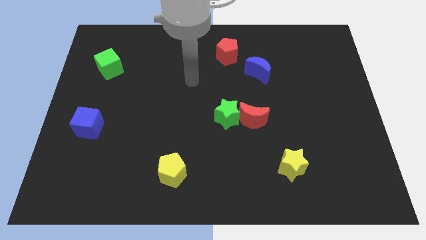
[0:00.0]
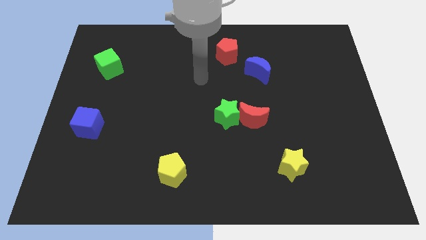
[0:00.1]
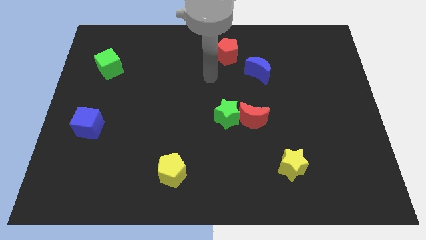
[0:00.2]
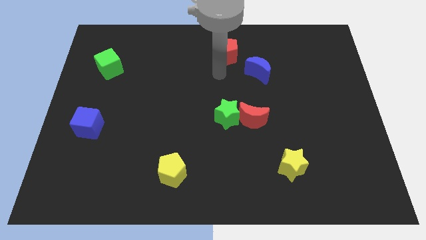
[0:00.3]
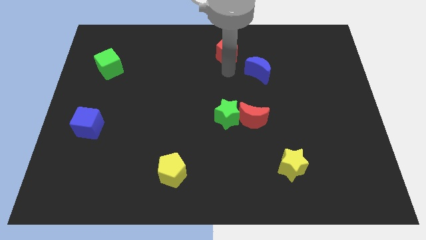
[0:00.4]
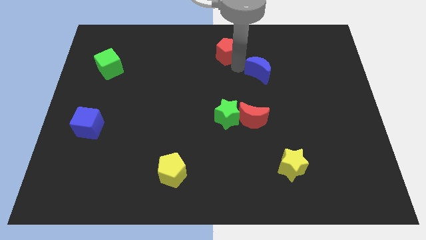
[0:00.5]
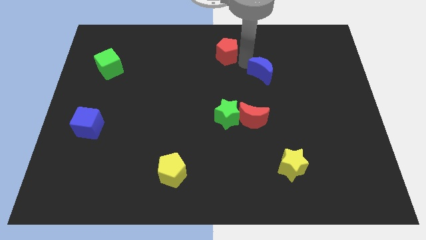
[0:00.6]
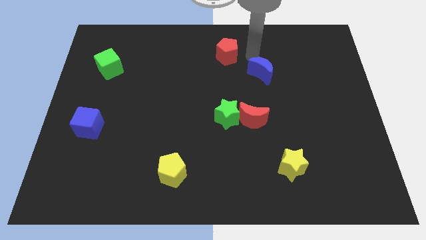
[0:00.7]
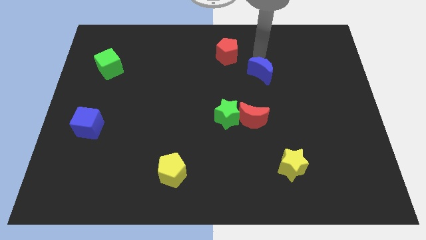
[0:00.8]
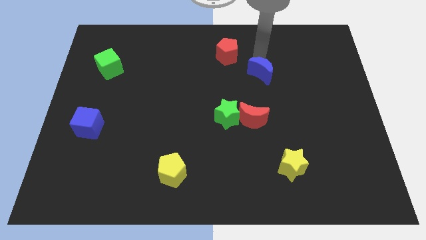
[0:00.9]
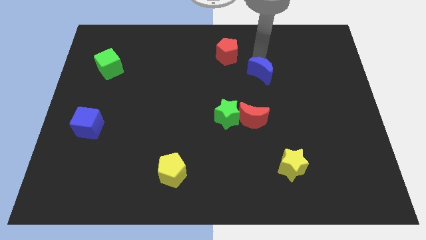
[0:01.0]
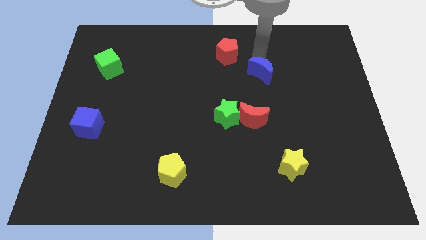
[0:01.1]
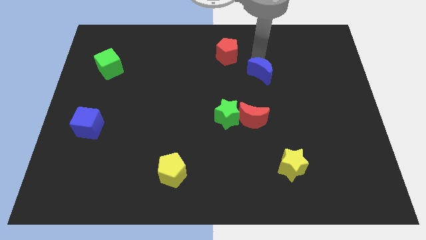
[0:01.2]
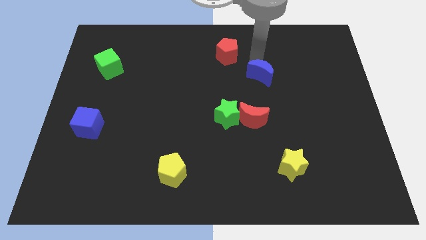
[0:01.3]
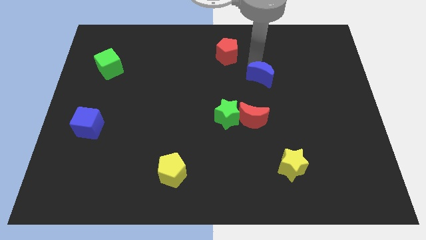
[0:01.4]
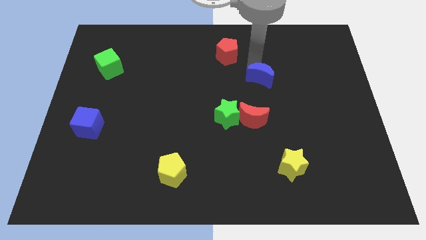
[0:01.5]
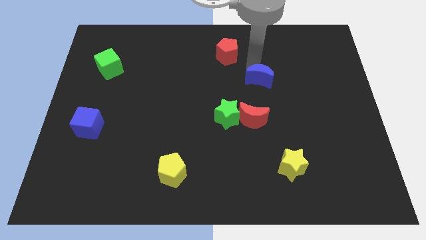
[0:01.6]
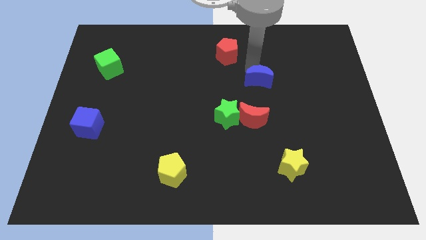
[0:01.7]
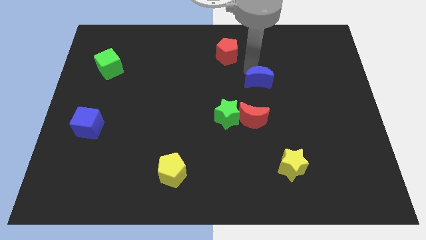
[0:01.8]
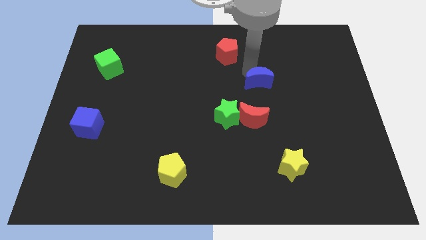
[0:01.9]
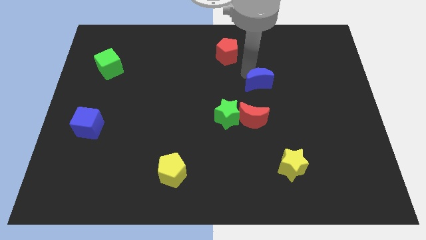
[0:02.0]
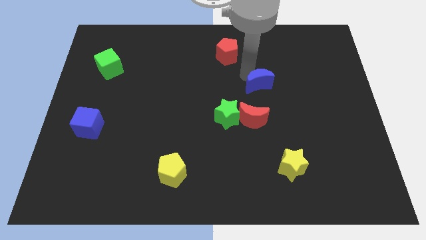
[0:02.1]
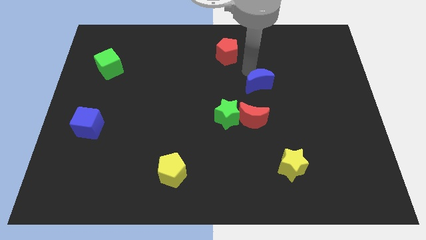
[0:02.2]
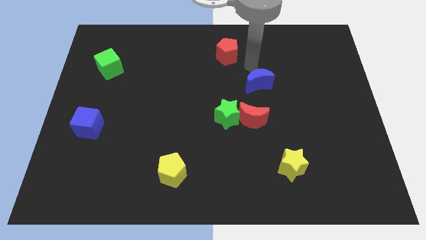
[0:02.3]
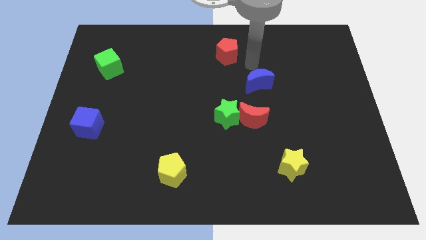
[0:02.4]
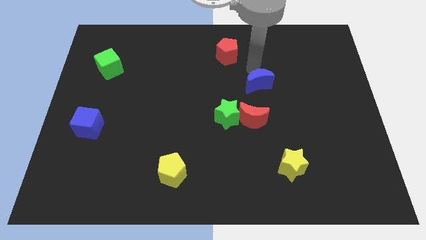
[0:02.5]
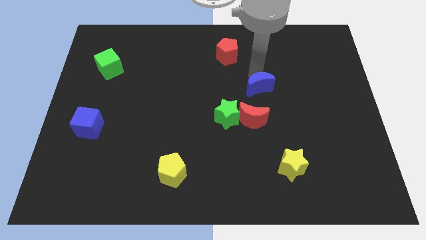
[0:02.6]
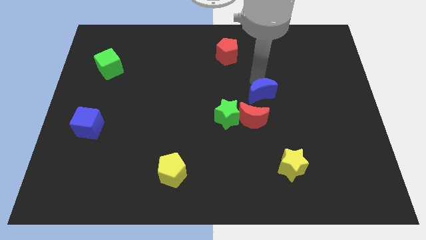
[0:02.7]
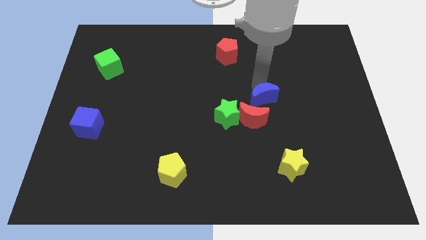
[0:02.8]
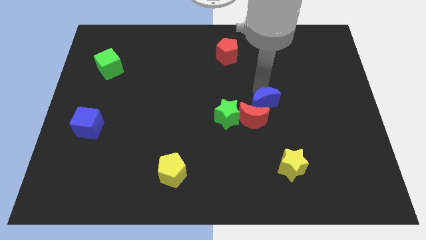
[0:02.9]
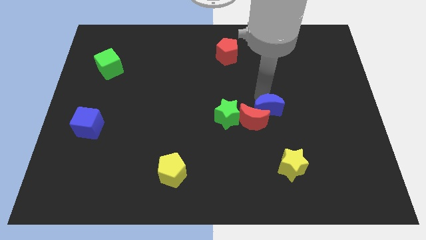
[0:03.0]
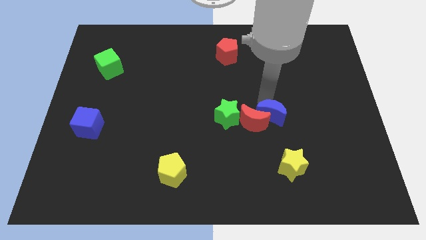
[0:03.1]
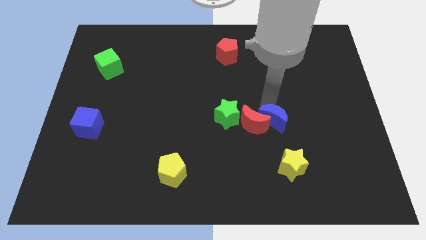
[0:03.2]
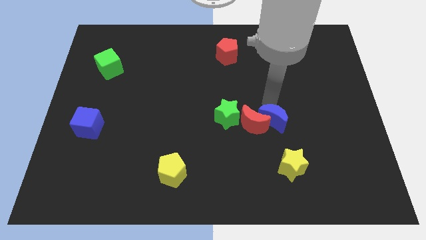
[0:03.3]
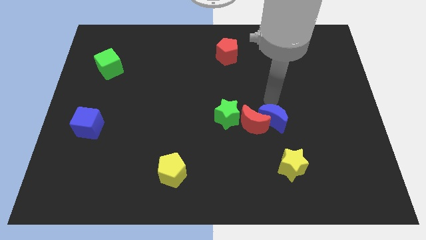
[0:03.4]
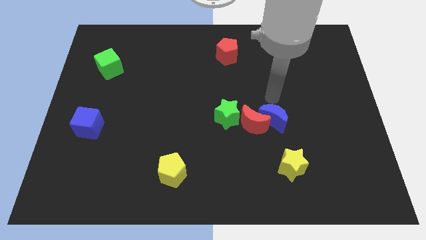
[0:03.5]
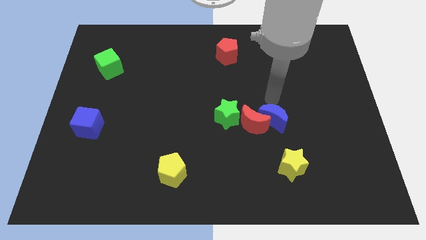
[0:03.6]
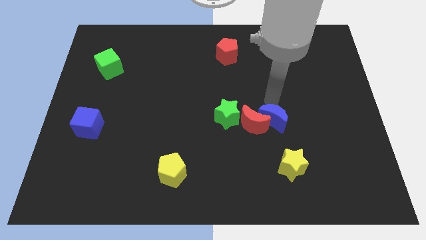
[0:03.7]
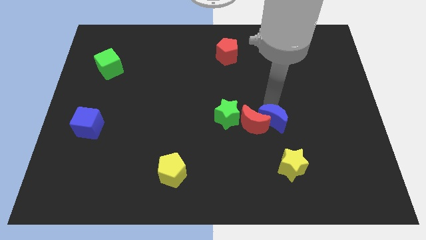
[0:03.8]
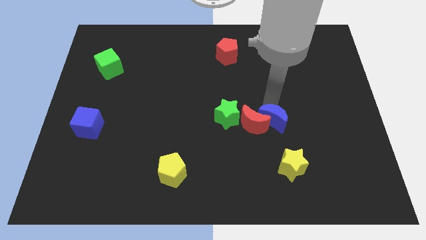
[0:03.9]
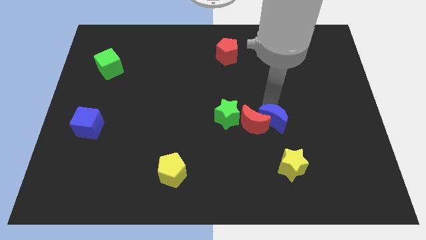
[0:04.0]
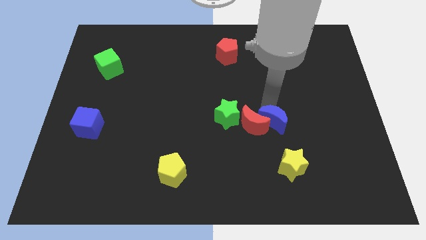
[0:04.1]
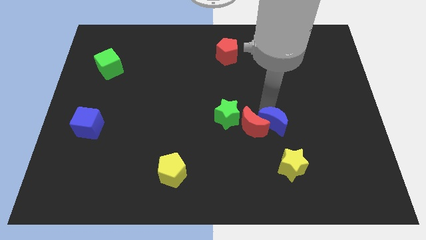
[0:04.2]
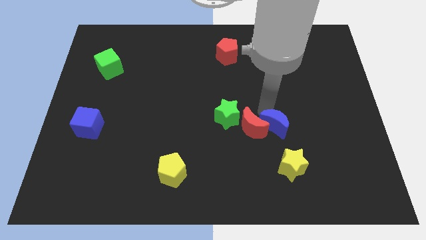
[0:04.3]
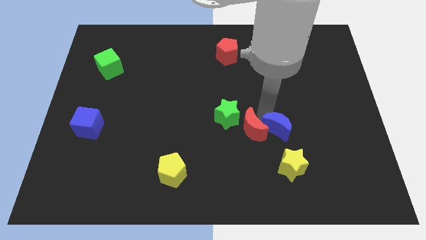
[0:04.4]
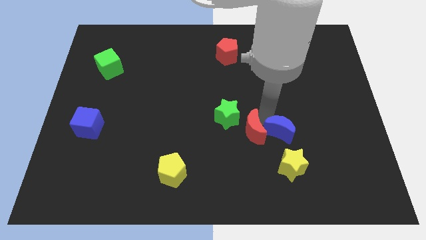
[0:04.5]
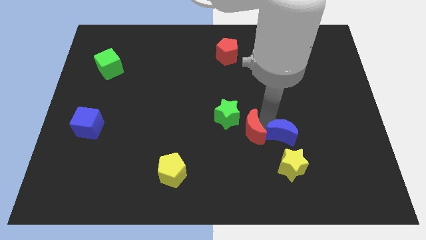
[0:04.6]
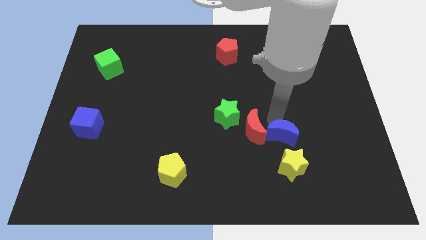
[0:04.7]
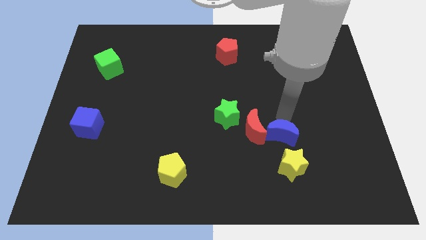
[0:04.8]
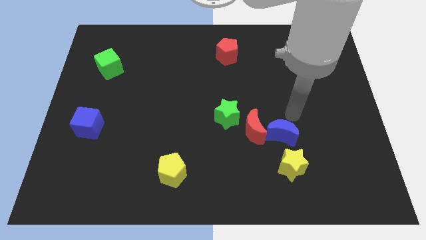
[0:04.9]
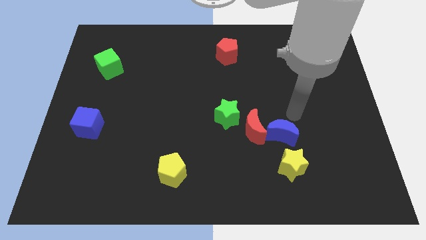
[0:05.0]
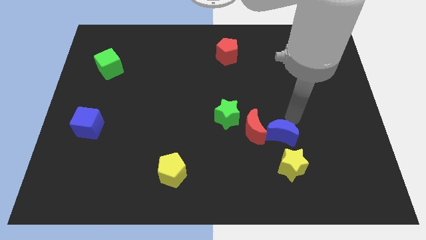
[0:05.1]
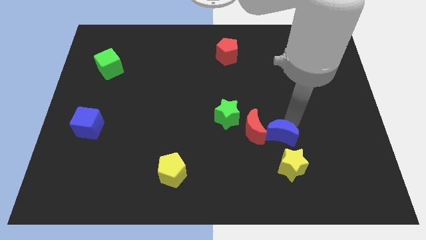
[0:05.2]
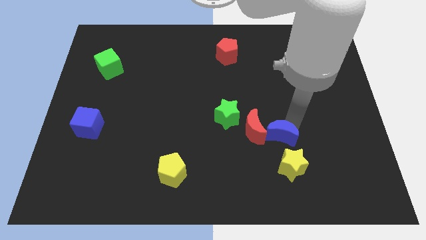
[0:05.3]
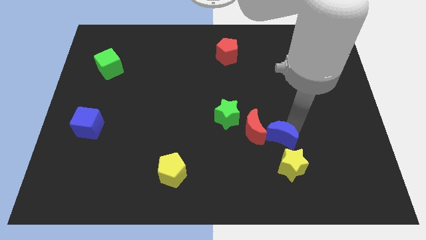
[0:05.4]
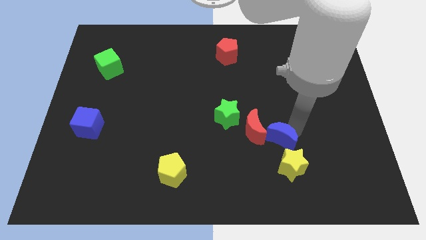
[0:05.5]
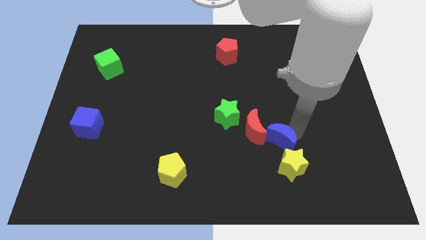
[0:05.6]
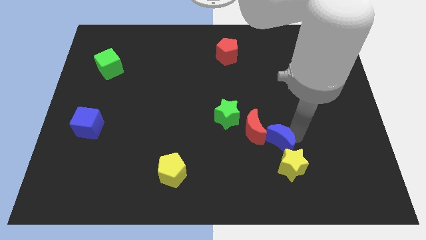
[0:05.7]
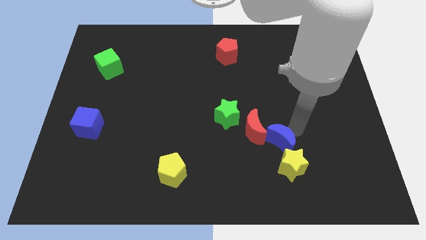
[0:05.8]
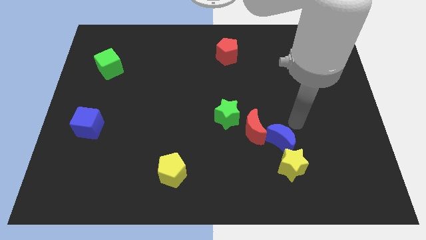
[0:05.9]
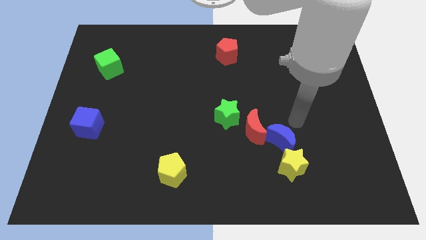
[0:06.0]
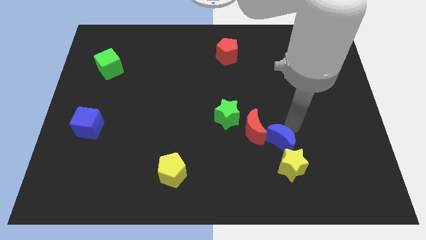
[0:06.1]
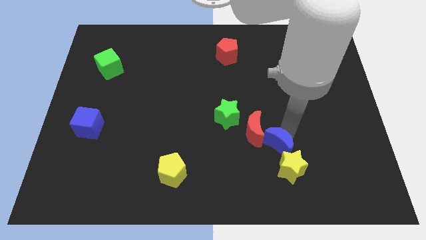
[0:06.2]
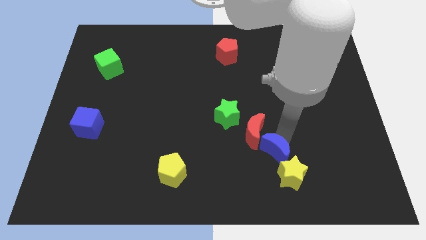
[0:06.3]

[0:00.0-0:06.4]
move the blue moon to the bottom of the red moon

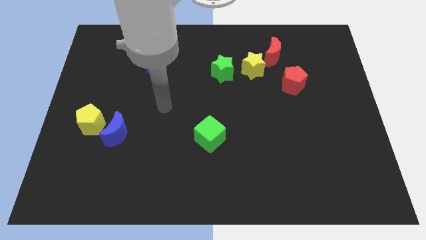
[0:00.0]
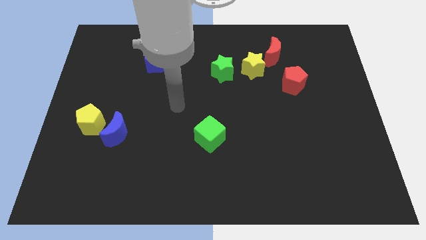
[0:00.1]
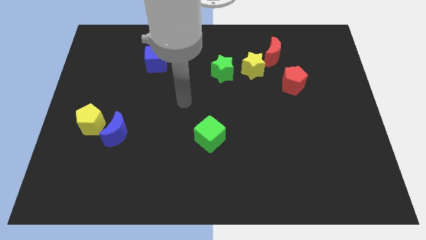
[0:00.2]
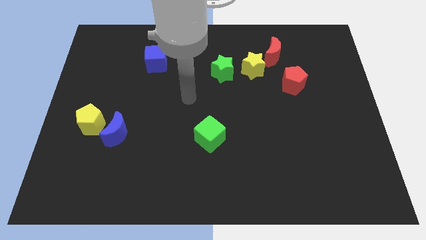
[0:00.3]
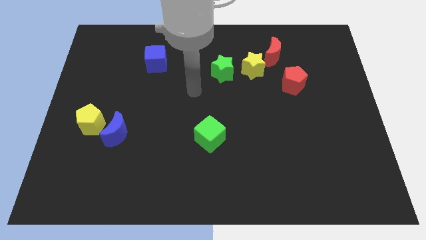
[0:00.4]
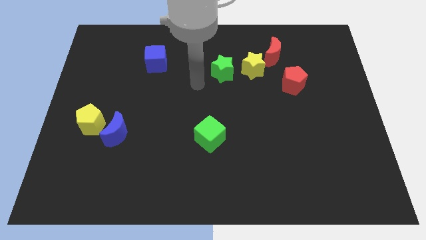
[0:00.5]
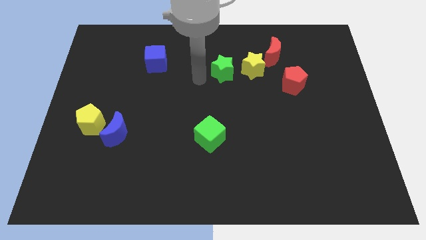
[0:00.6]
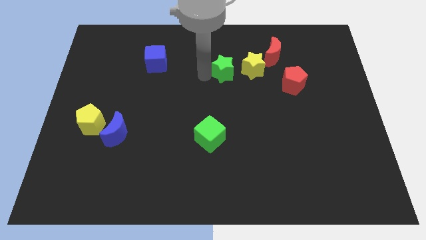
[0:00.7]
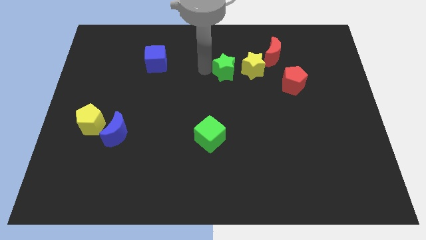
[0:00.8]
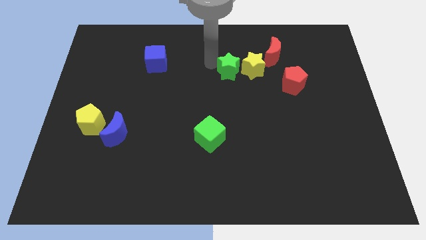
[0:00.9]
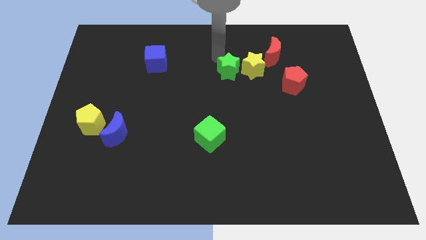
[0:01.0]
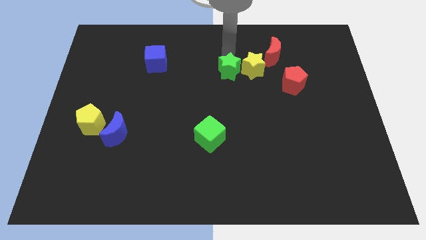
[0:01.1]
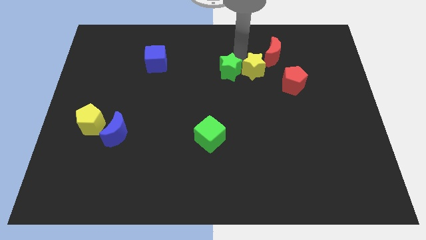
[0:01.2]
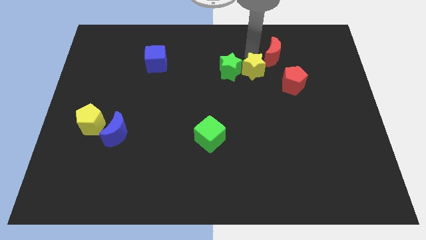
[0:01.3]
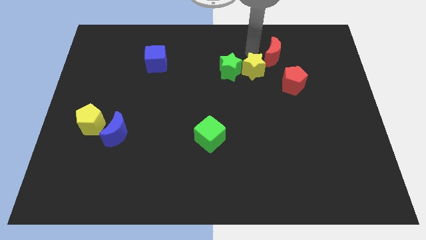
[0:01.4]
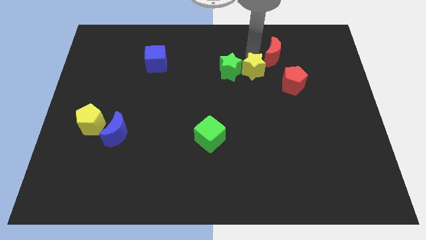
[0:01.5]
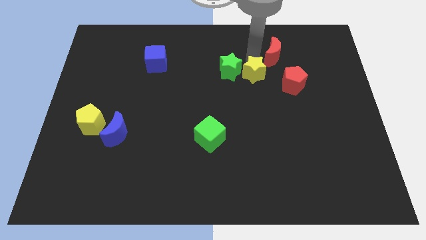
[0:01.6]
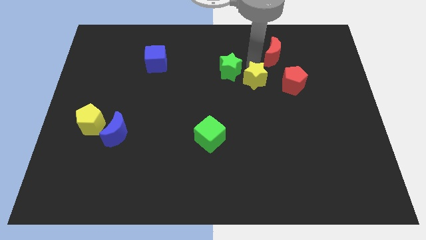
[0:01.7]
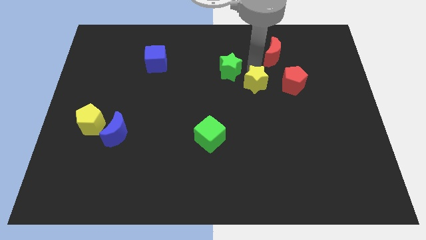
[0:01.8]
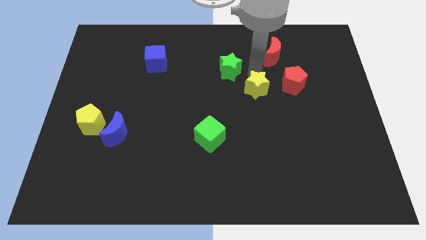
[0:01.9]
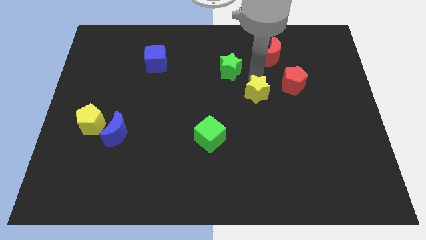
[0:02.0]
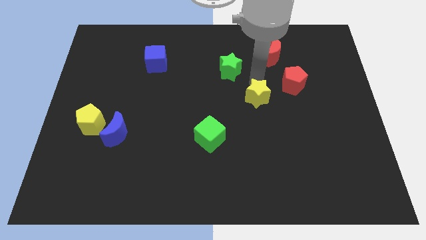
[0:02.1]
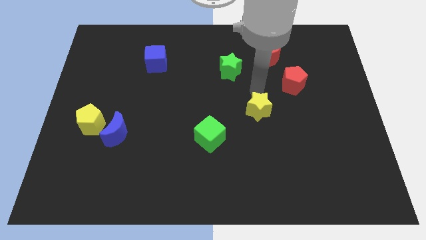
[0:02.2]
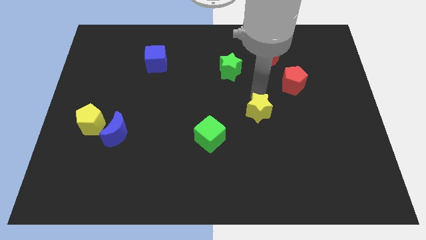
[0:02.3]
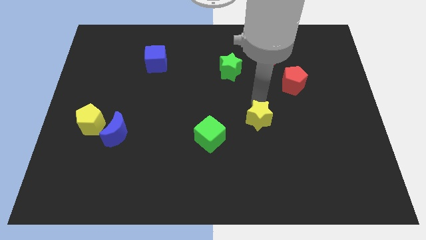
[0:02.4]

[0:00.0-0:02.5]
push the yellow star right of the green cube
